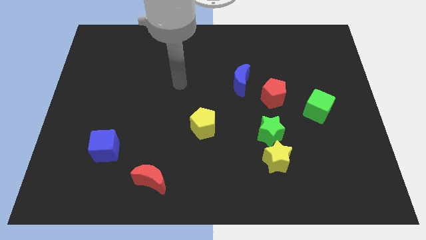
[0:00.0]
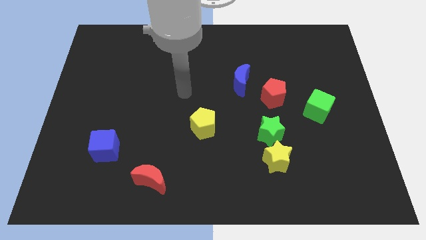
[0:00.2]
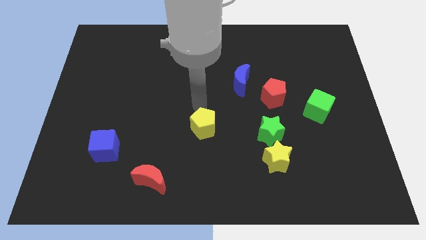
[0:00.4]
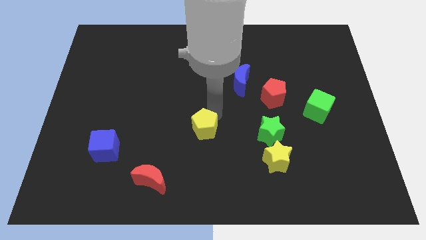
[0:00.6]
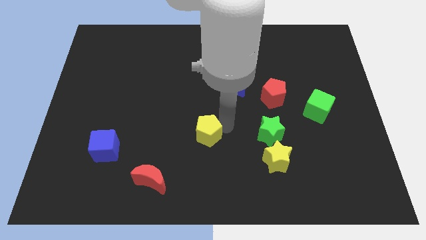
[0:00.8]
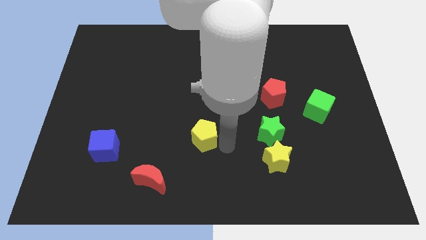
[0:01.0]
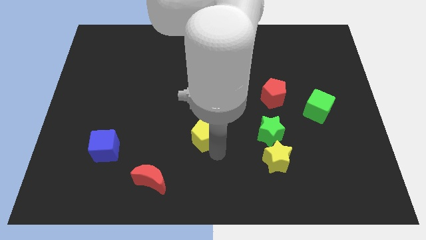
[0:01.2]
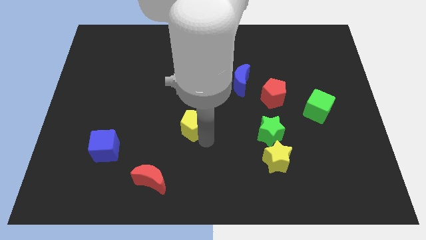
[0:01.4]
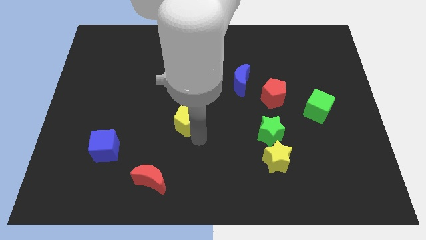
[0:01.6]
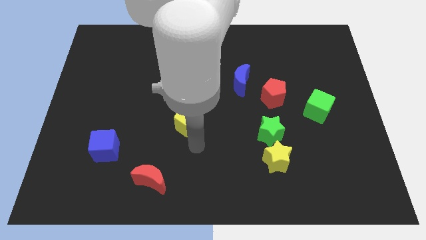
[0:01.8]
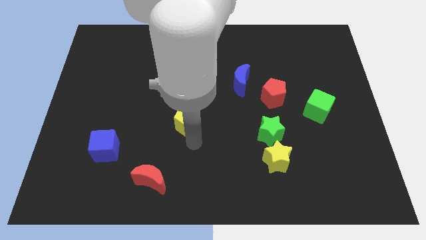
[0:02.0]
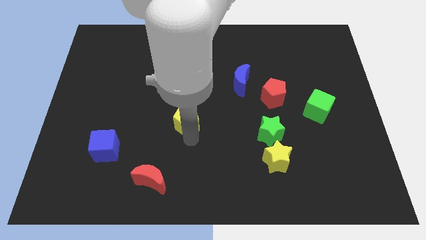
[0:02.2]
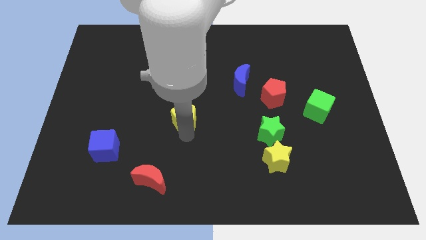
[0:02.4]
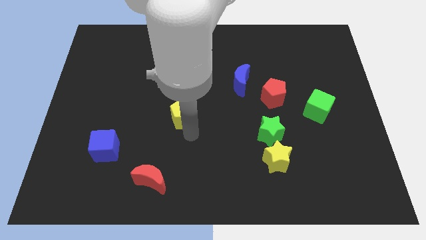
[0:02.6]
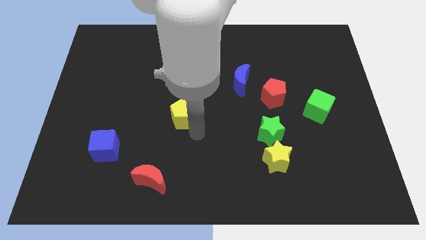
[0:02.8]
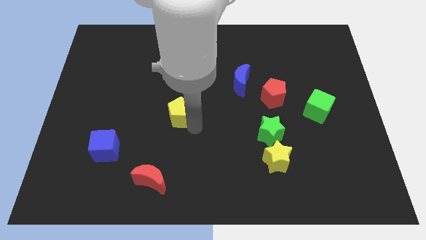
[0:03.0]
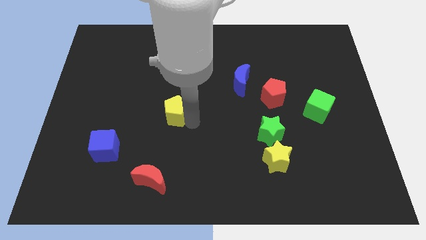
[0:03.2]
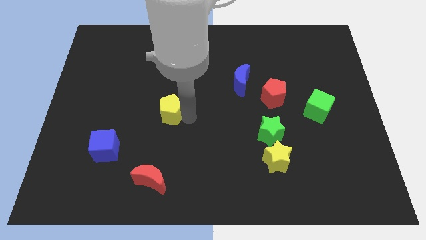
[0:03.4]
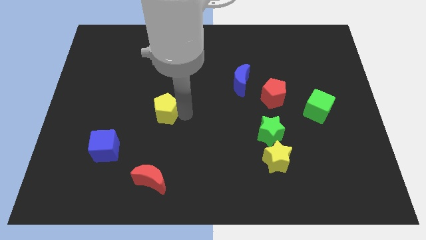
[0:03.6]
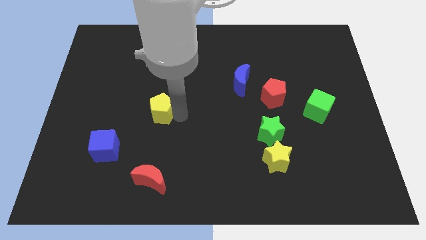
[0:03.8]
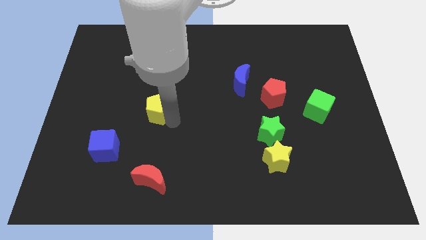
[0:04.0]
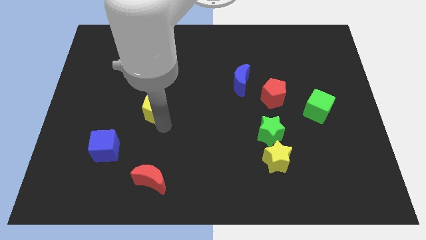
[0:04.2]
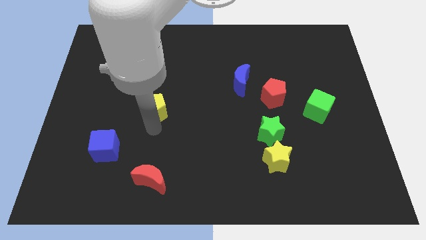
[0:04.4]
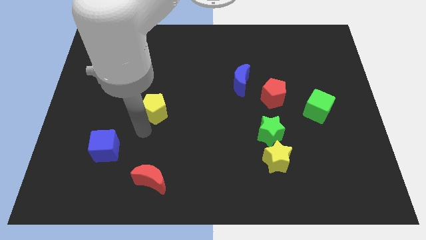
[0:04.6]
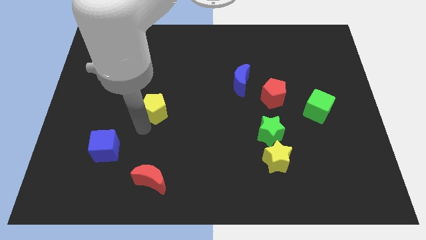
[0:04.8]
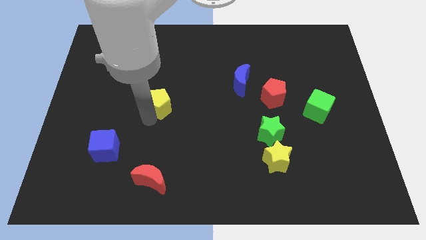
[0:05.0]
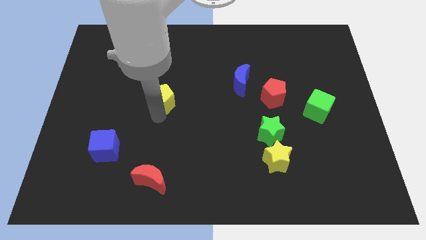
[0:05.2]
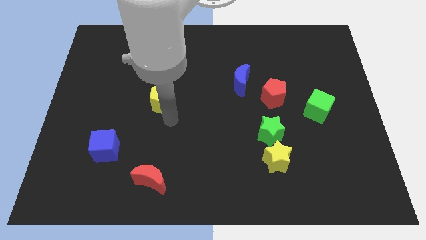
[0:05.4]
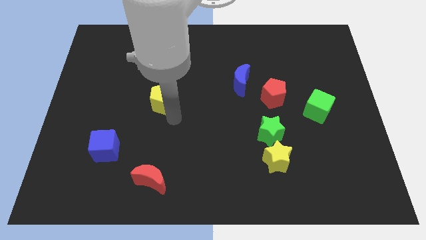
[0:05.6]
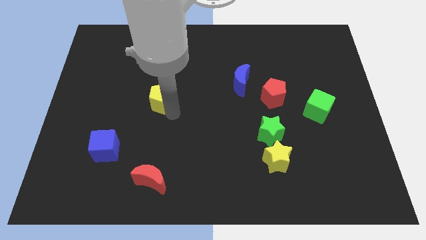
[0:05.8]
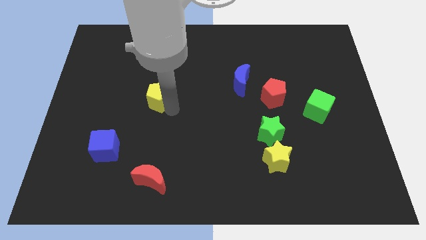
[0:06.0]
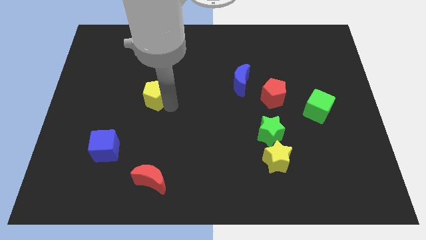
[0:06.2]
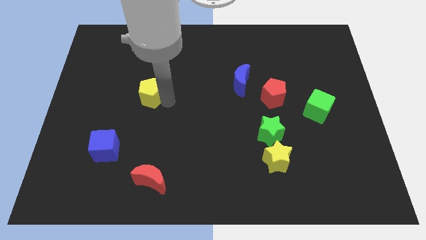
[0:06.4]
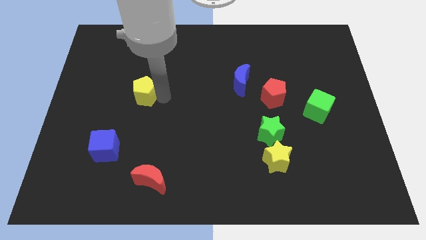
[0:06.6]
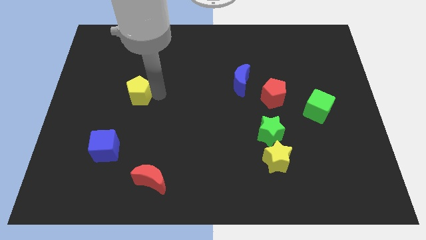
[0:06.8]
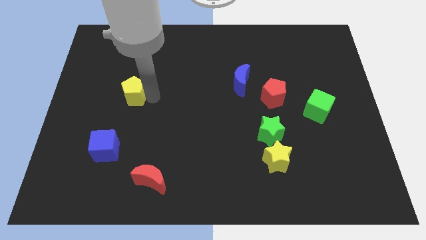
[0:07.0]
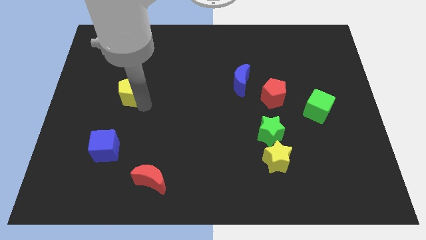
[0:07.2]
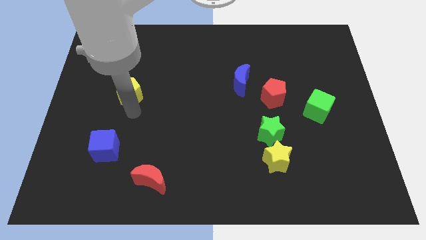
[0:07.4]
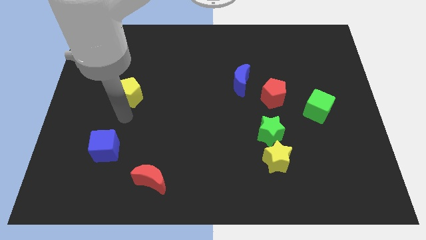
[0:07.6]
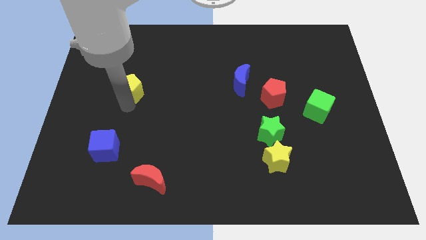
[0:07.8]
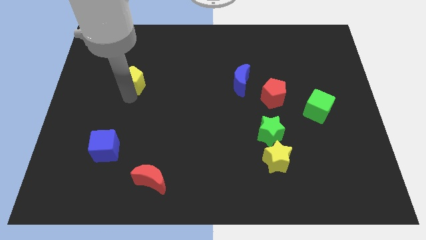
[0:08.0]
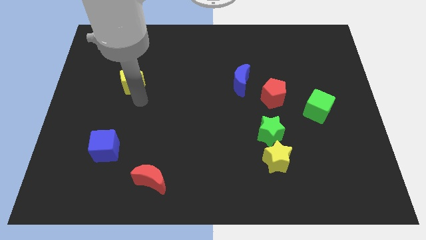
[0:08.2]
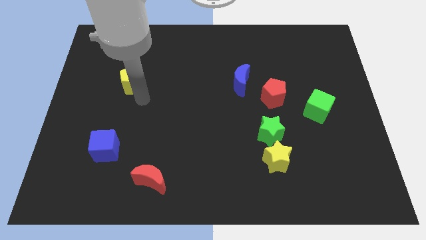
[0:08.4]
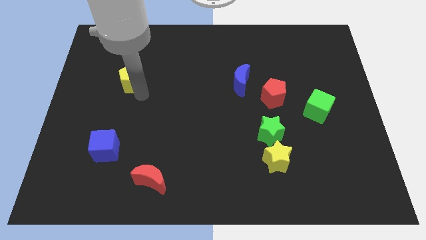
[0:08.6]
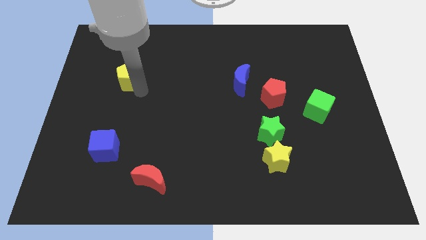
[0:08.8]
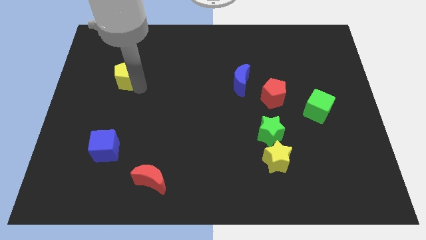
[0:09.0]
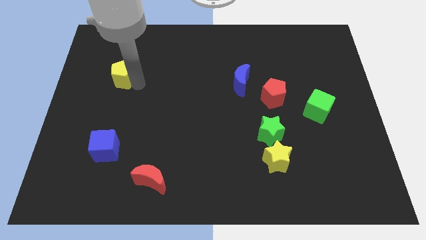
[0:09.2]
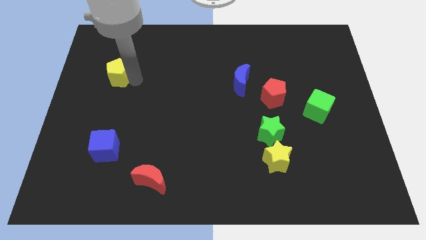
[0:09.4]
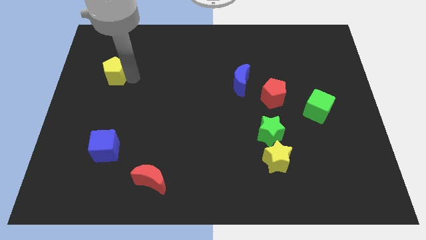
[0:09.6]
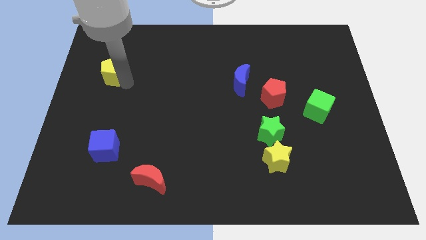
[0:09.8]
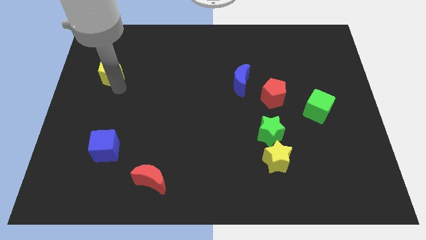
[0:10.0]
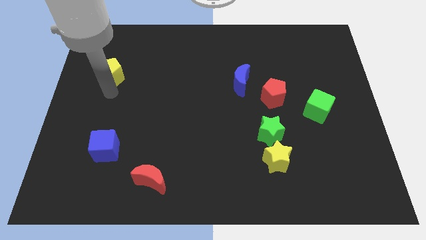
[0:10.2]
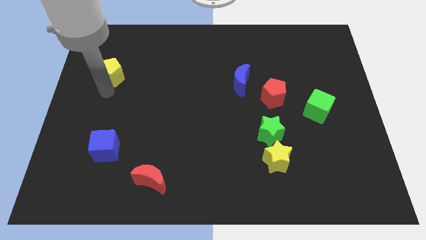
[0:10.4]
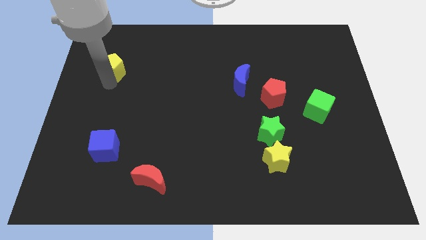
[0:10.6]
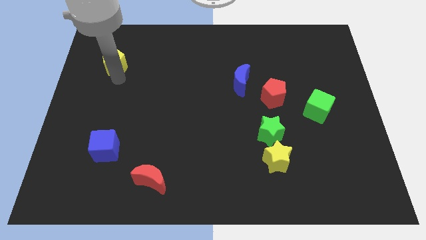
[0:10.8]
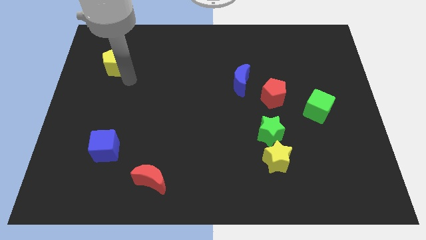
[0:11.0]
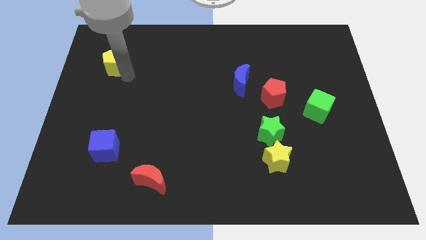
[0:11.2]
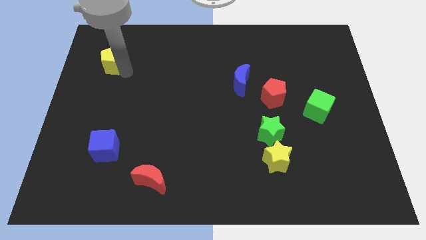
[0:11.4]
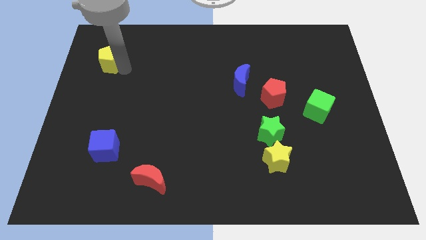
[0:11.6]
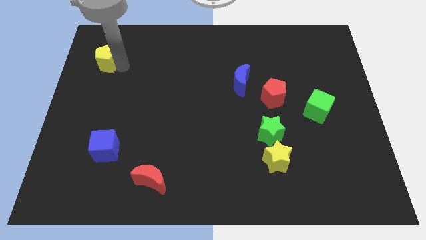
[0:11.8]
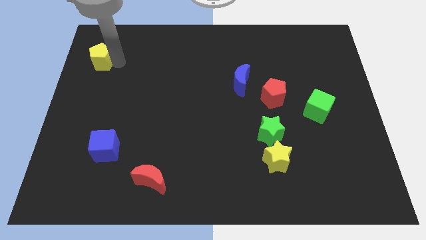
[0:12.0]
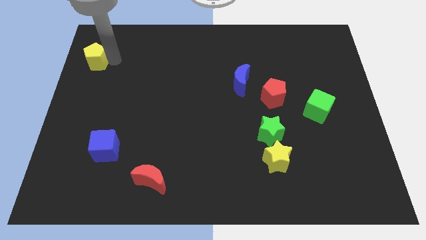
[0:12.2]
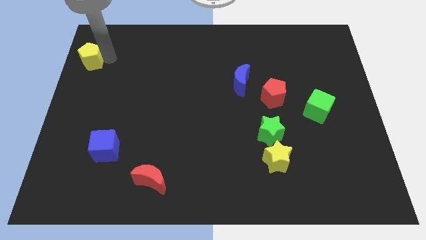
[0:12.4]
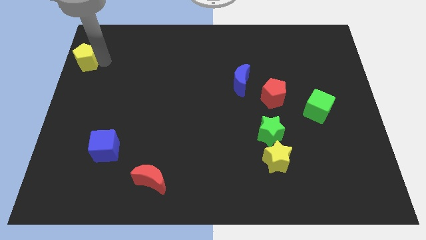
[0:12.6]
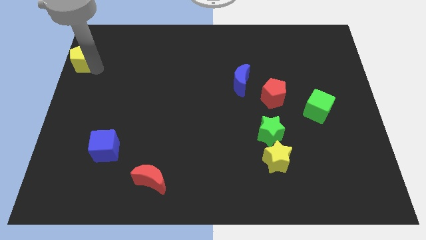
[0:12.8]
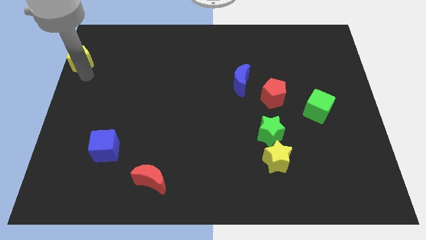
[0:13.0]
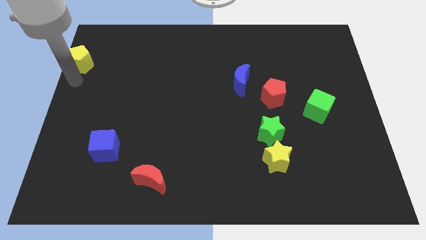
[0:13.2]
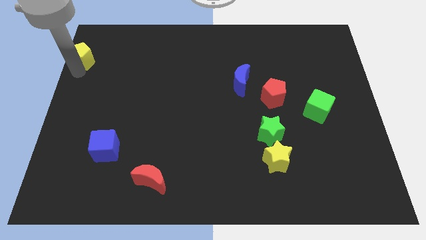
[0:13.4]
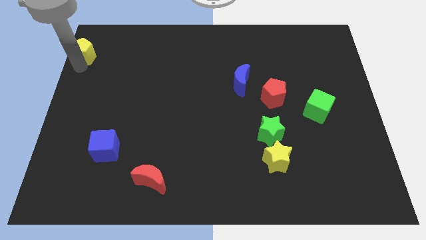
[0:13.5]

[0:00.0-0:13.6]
put the yellow pentagon to the upper left corner
